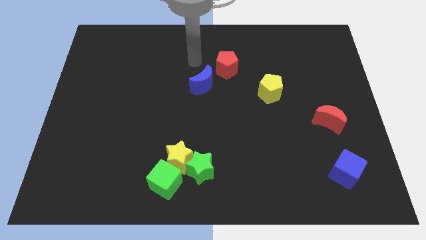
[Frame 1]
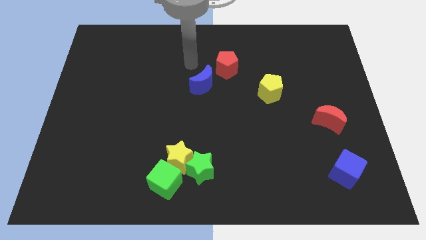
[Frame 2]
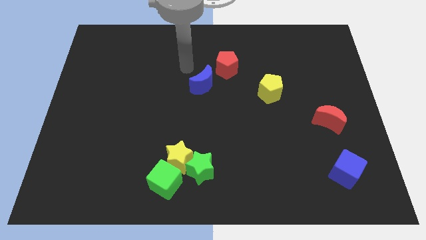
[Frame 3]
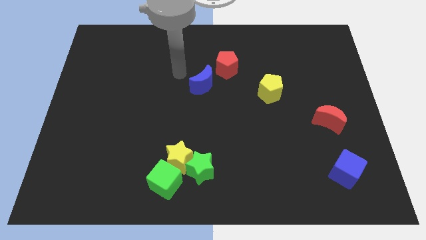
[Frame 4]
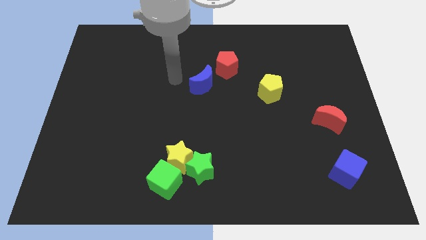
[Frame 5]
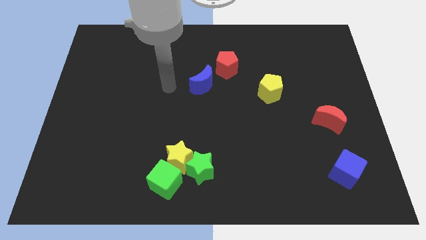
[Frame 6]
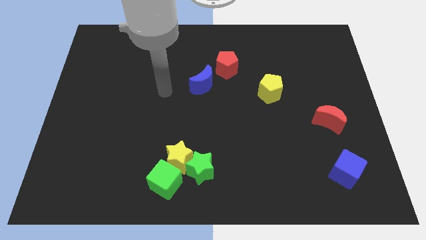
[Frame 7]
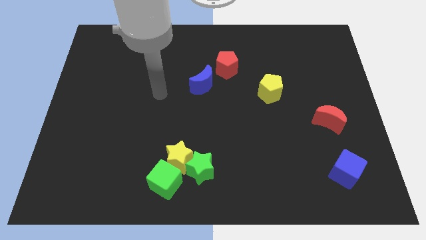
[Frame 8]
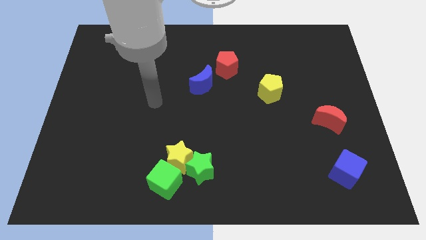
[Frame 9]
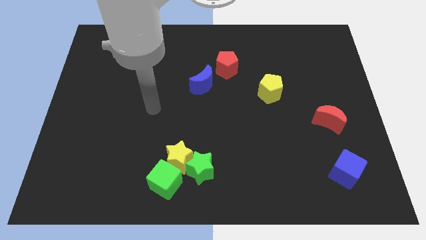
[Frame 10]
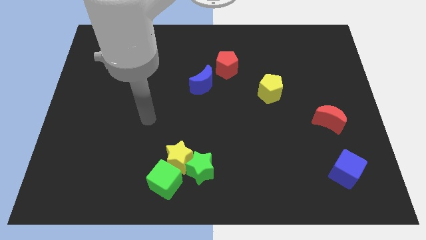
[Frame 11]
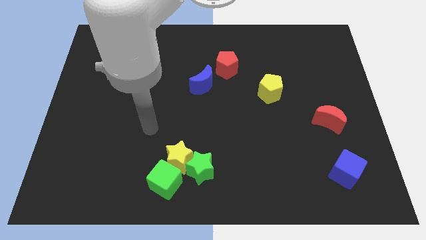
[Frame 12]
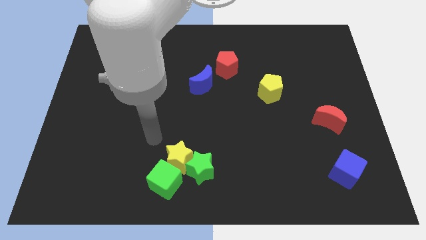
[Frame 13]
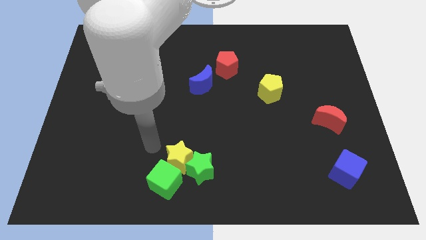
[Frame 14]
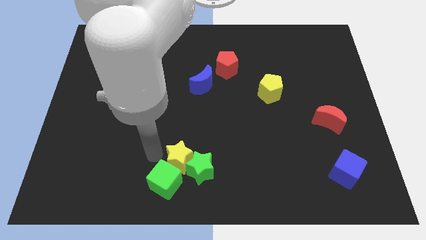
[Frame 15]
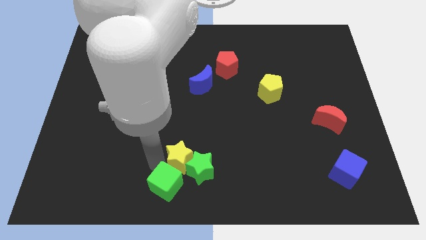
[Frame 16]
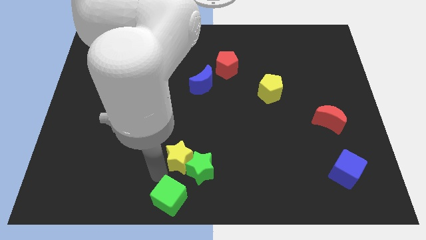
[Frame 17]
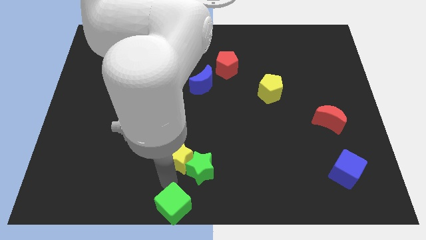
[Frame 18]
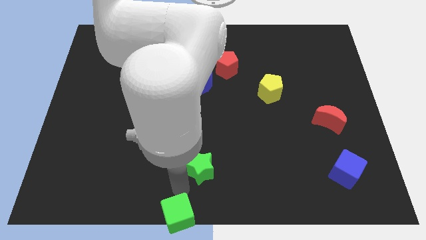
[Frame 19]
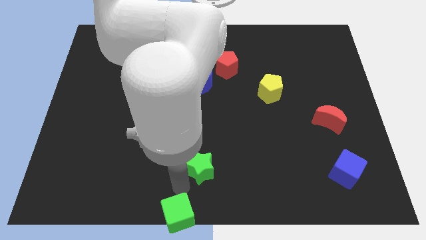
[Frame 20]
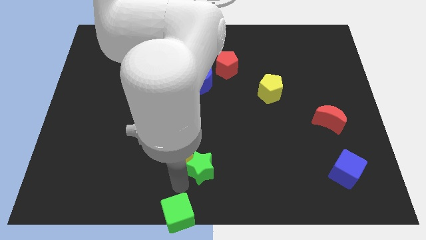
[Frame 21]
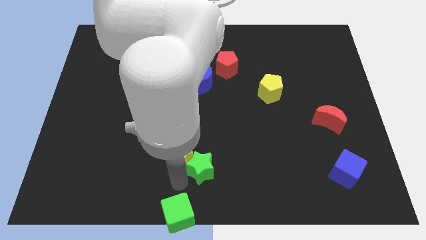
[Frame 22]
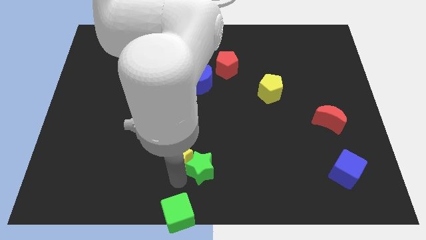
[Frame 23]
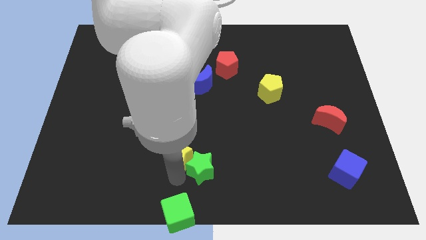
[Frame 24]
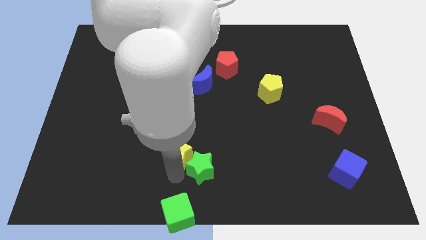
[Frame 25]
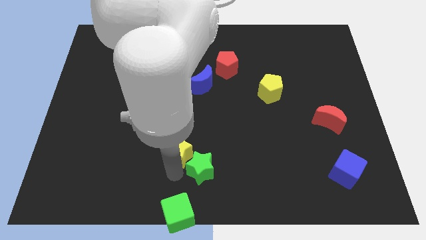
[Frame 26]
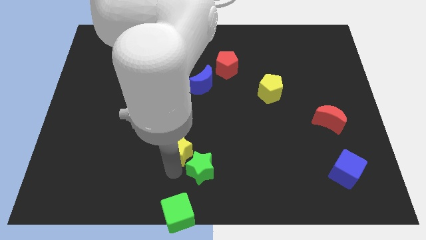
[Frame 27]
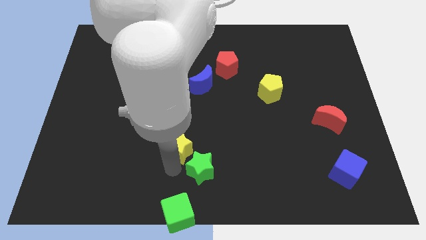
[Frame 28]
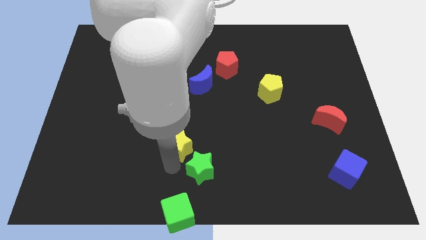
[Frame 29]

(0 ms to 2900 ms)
move the yellow star away from the green star and green cube

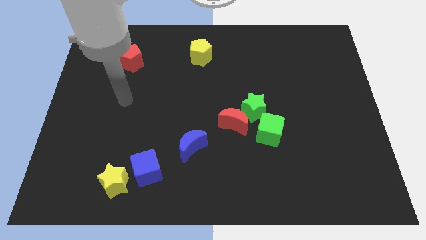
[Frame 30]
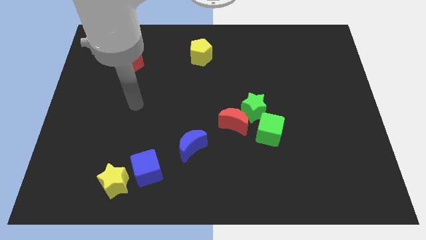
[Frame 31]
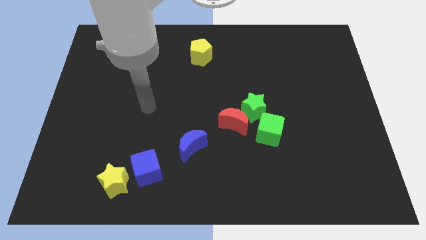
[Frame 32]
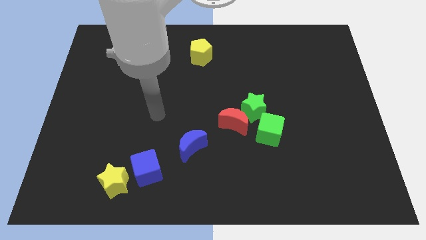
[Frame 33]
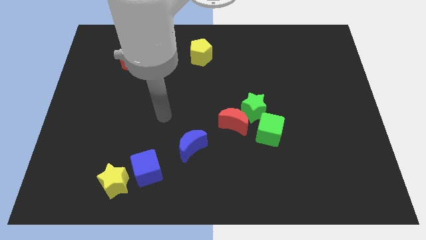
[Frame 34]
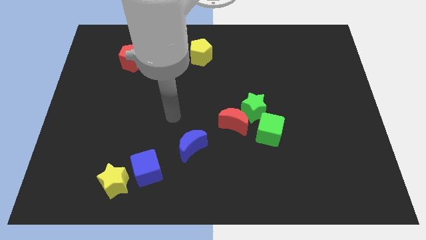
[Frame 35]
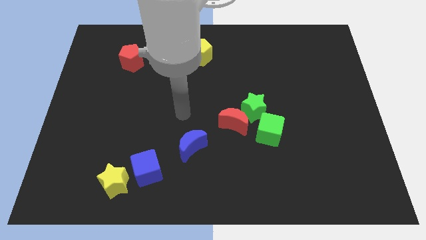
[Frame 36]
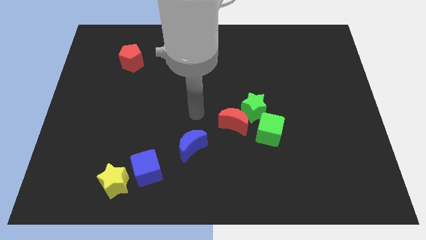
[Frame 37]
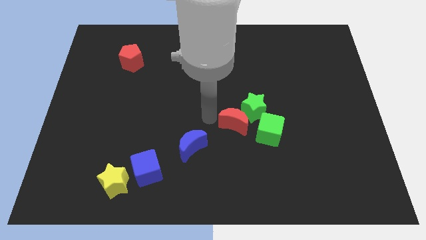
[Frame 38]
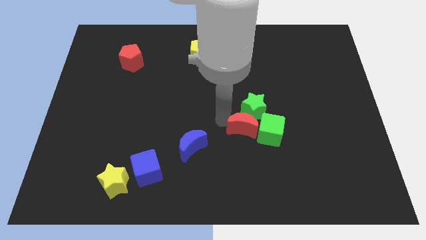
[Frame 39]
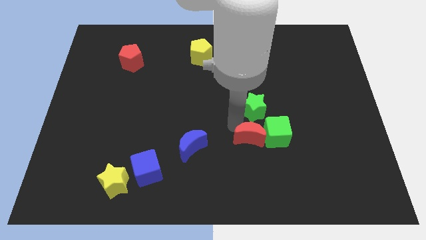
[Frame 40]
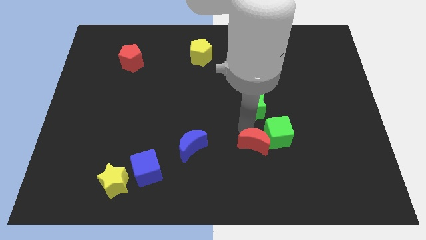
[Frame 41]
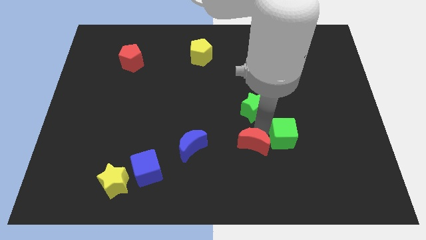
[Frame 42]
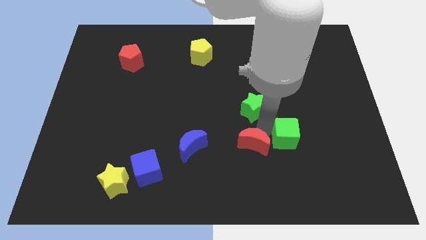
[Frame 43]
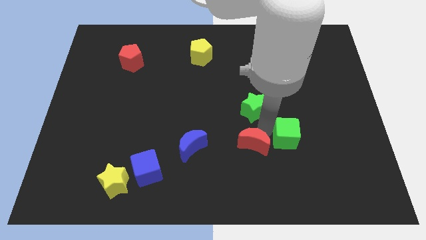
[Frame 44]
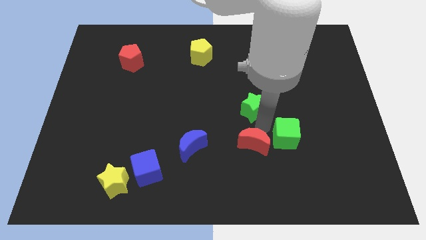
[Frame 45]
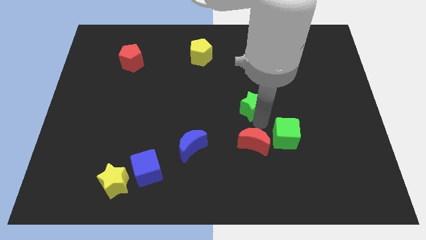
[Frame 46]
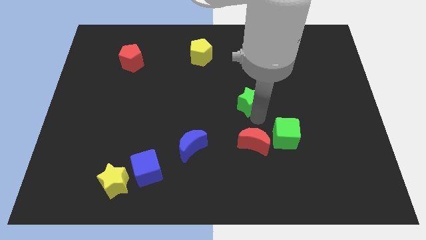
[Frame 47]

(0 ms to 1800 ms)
pull the green star apart from the red moon and green cube

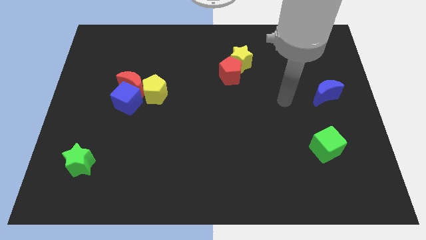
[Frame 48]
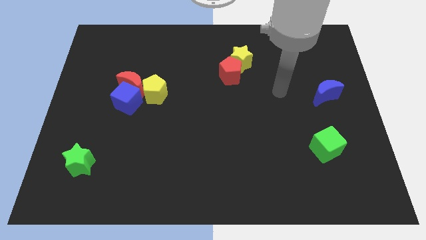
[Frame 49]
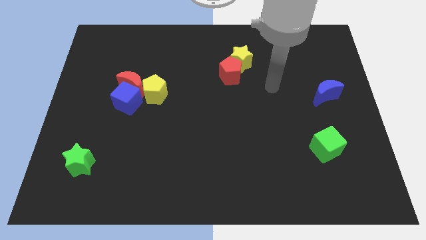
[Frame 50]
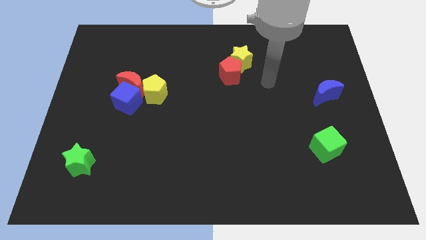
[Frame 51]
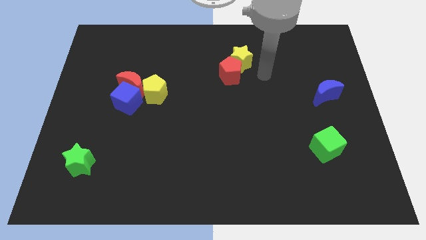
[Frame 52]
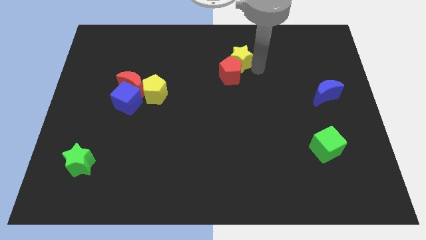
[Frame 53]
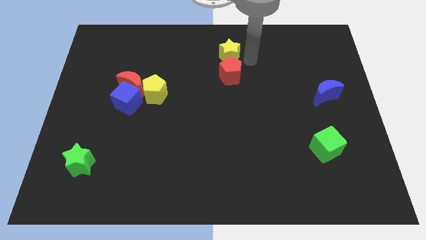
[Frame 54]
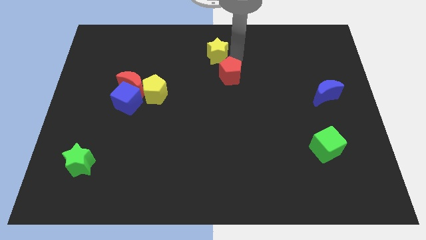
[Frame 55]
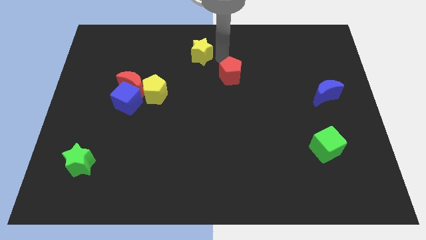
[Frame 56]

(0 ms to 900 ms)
pull the red pentagon apart from the yellow star

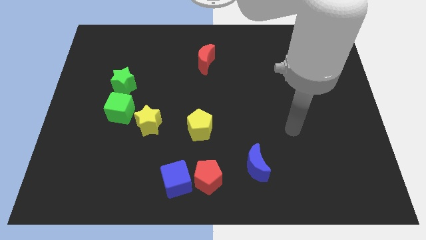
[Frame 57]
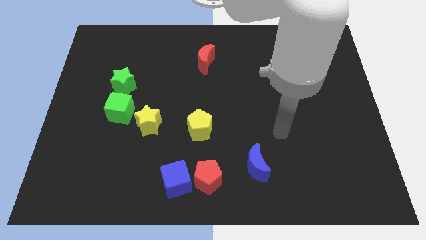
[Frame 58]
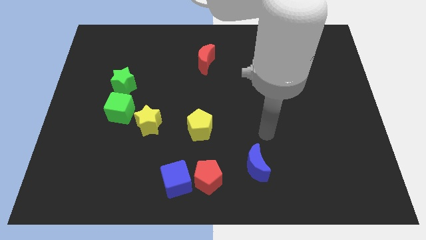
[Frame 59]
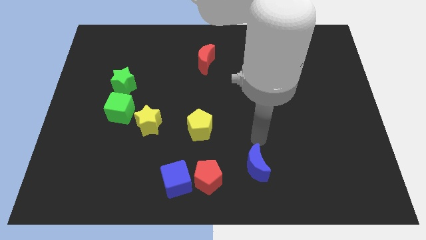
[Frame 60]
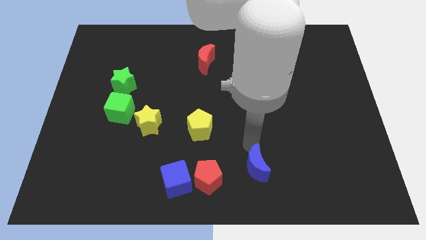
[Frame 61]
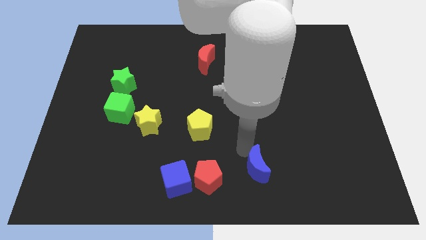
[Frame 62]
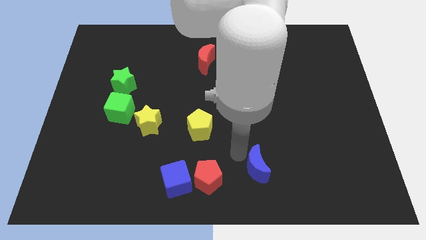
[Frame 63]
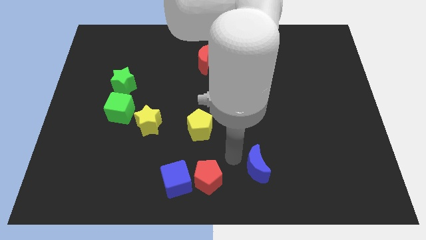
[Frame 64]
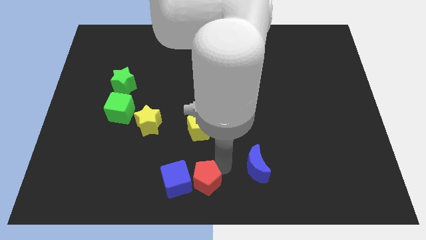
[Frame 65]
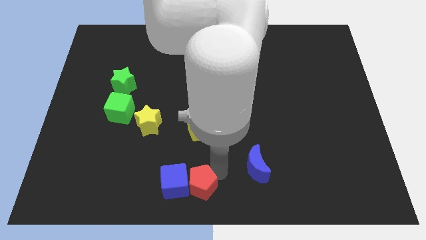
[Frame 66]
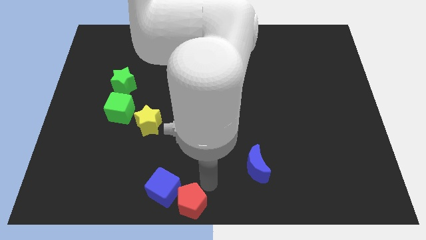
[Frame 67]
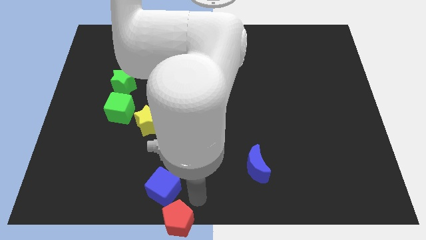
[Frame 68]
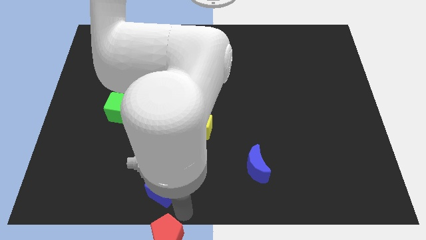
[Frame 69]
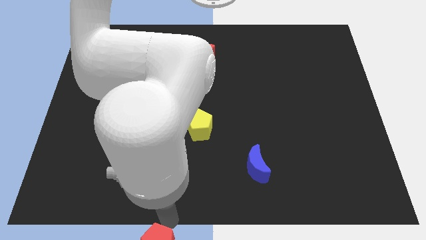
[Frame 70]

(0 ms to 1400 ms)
separate the blue cube from the red pentagon

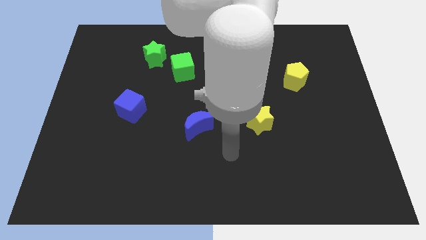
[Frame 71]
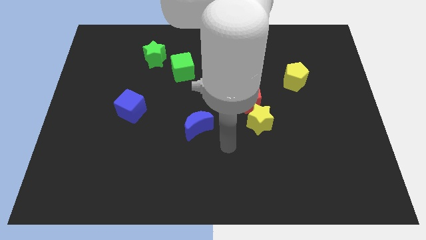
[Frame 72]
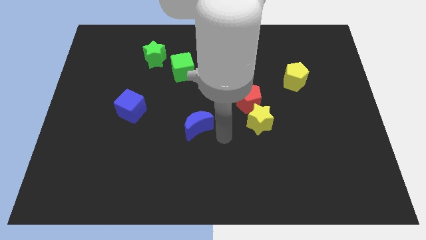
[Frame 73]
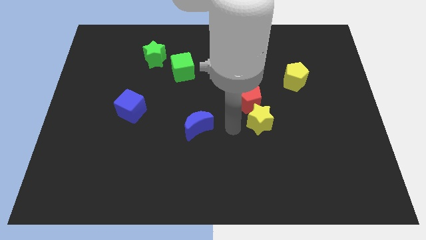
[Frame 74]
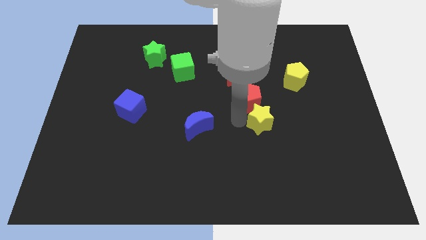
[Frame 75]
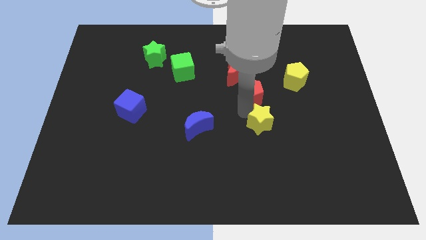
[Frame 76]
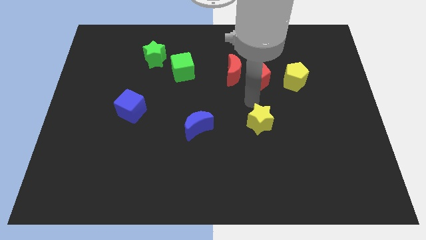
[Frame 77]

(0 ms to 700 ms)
pull the yellow star apart from the red pentagon

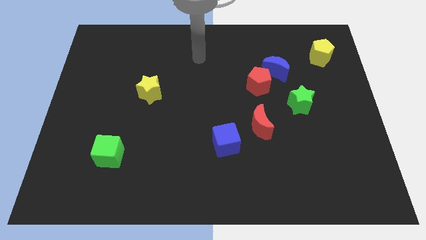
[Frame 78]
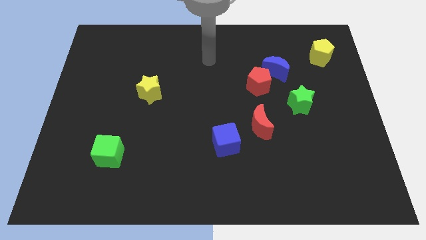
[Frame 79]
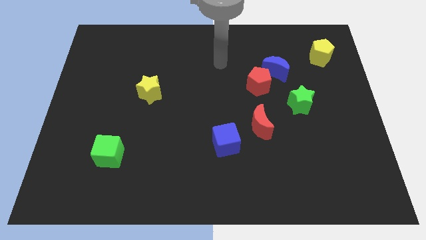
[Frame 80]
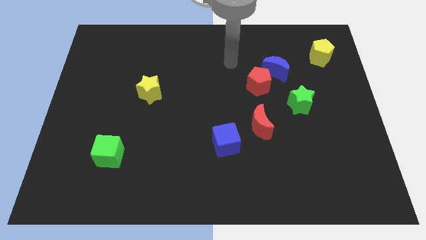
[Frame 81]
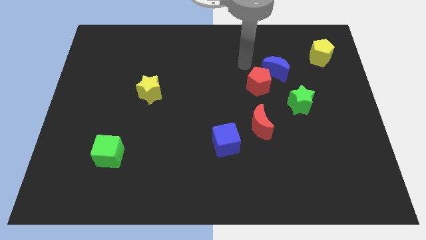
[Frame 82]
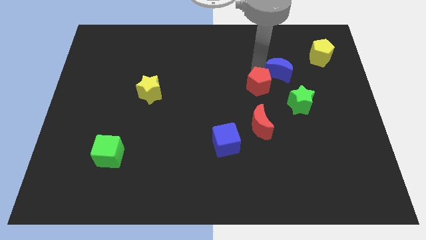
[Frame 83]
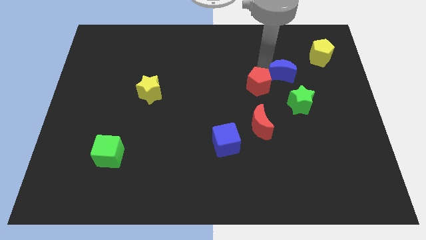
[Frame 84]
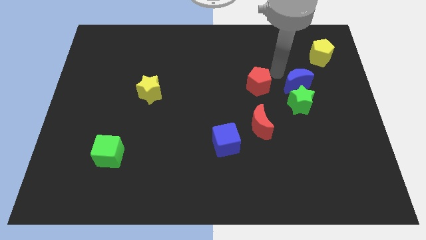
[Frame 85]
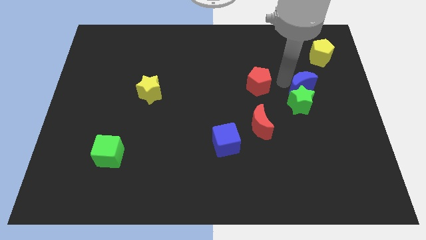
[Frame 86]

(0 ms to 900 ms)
move the red pentagon away from the blue moon

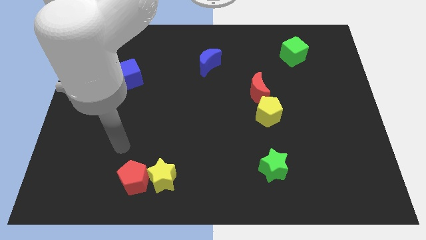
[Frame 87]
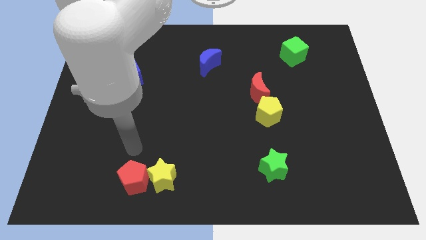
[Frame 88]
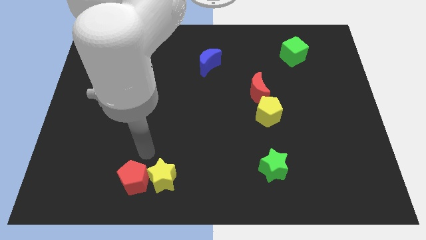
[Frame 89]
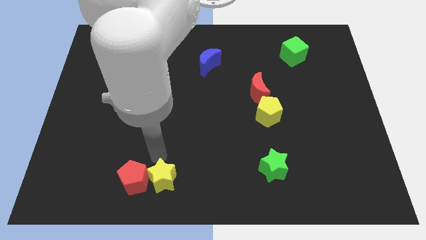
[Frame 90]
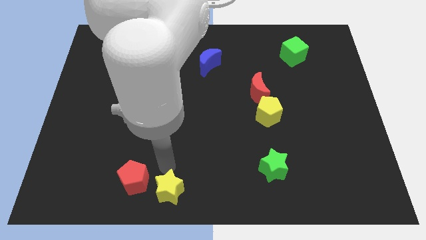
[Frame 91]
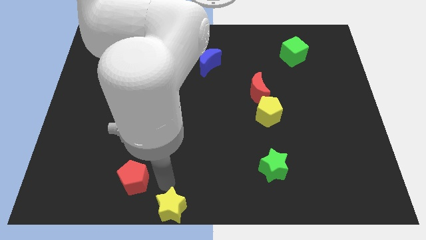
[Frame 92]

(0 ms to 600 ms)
separate the red pentagon from the yellow star

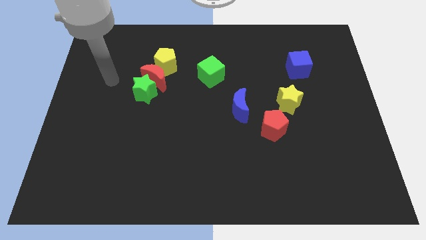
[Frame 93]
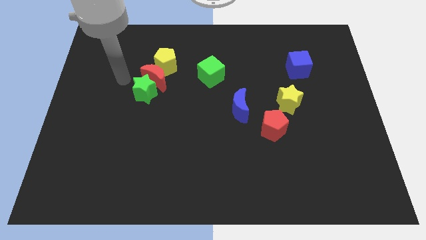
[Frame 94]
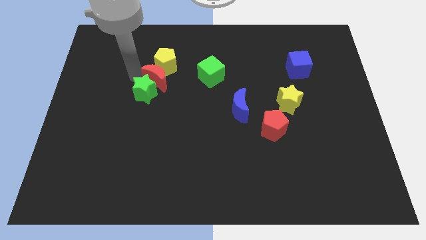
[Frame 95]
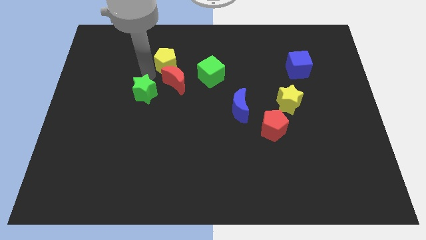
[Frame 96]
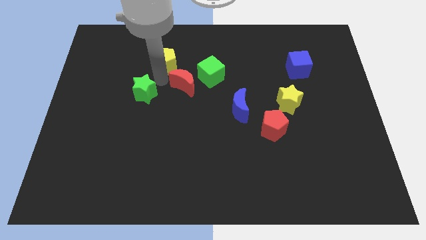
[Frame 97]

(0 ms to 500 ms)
separate the green star from the red moon
